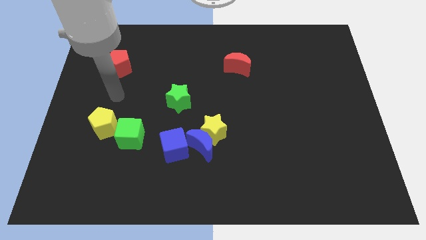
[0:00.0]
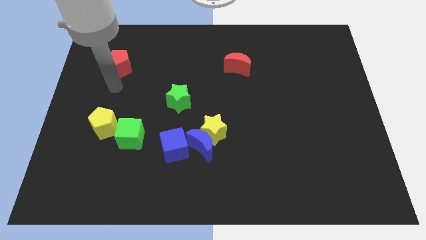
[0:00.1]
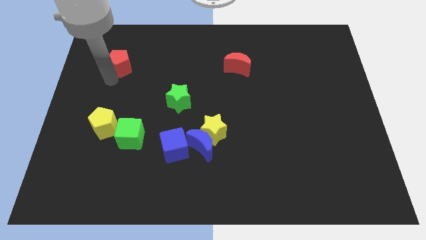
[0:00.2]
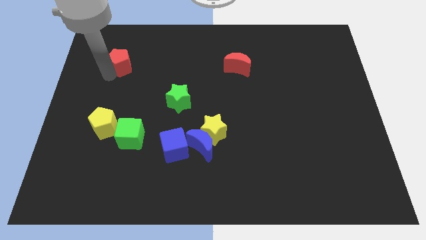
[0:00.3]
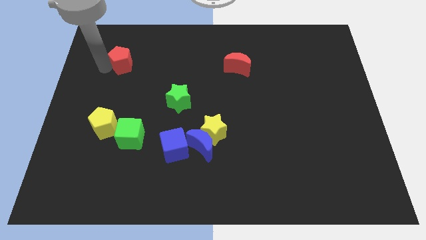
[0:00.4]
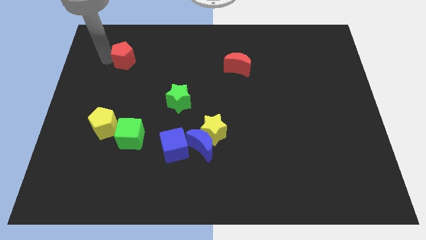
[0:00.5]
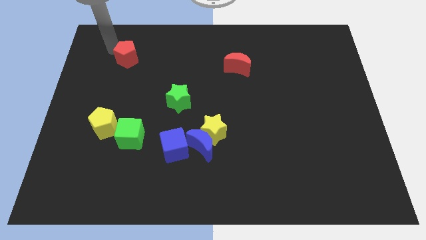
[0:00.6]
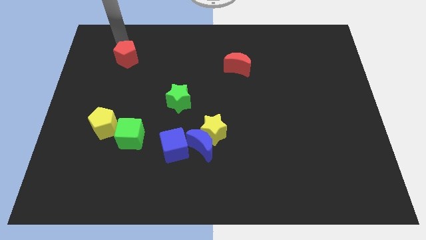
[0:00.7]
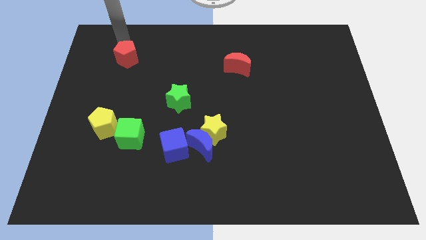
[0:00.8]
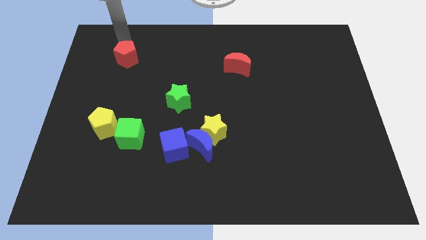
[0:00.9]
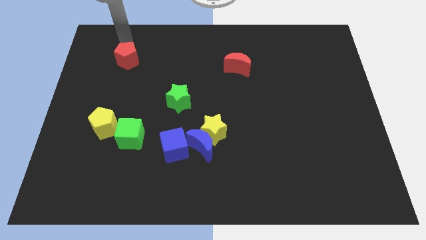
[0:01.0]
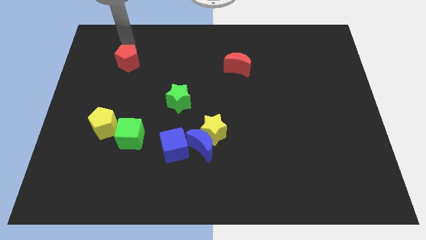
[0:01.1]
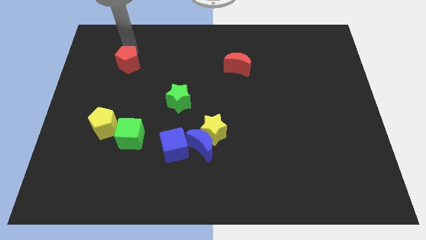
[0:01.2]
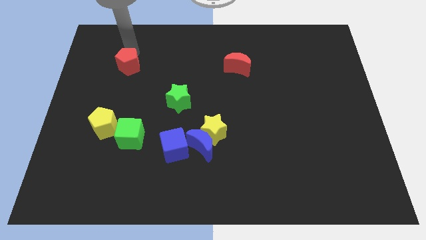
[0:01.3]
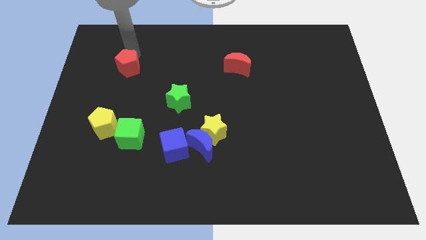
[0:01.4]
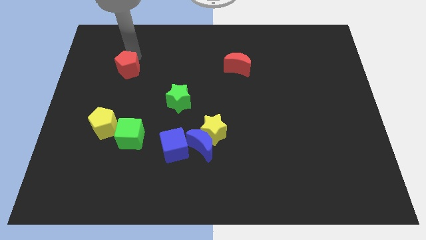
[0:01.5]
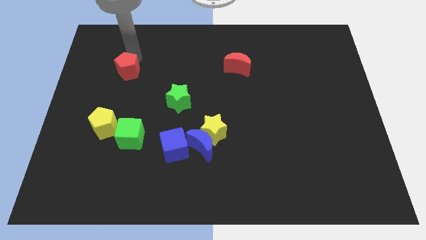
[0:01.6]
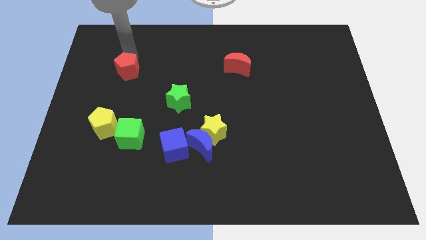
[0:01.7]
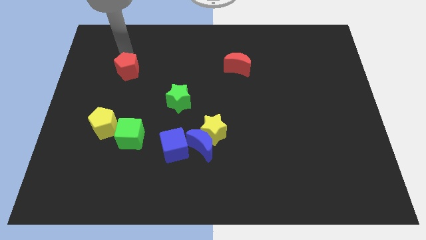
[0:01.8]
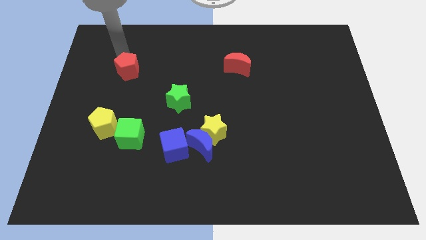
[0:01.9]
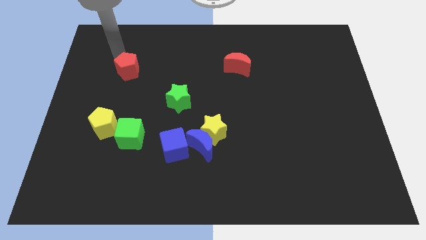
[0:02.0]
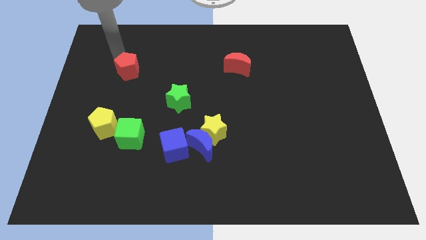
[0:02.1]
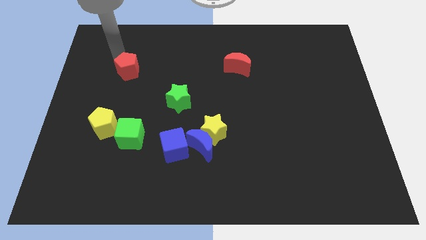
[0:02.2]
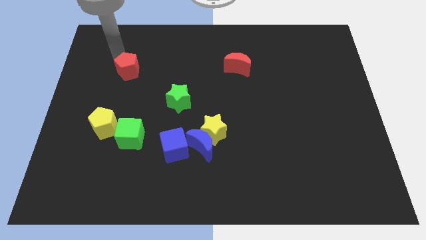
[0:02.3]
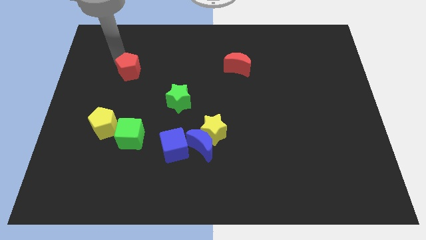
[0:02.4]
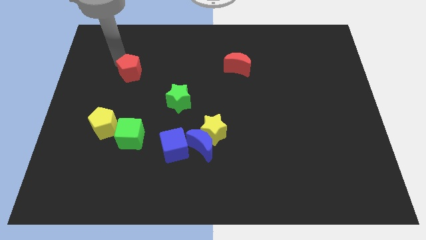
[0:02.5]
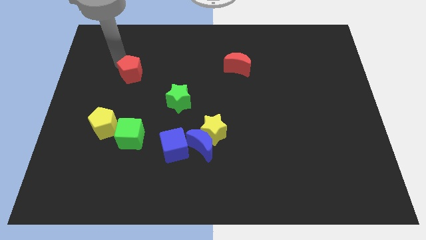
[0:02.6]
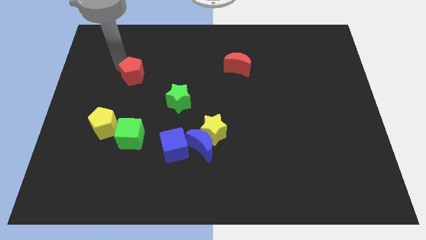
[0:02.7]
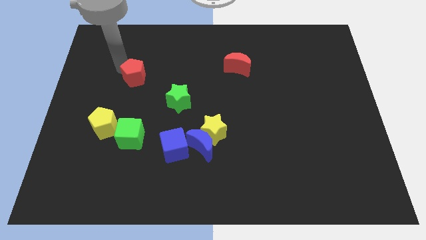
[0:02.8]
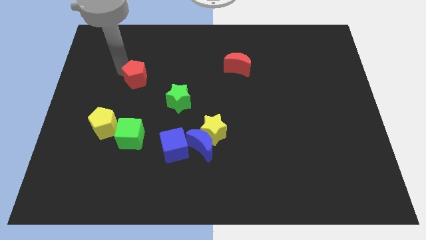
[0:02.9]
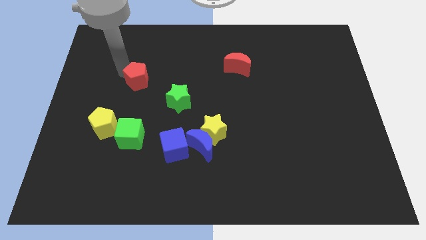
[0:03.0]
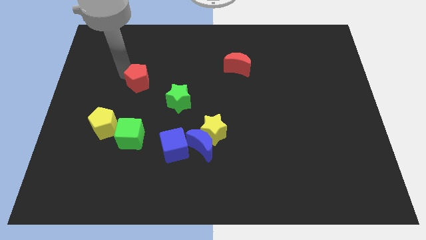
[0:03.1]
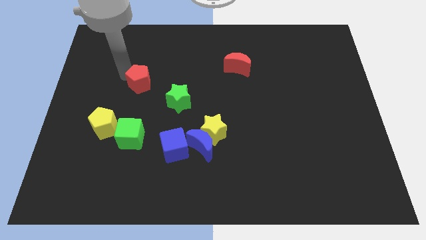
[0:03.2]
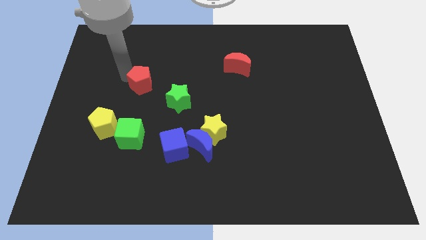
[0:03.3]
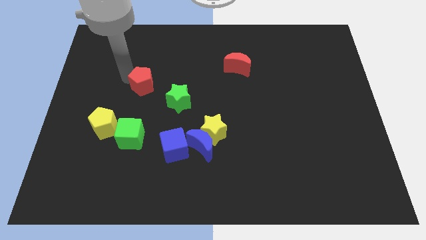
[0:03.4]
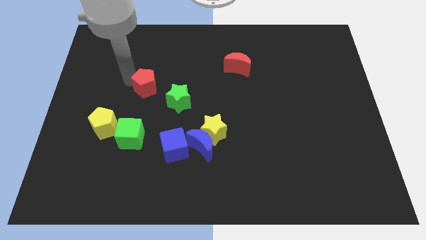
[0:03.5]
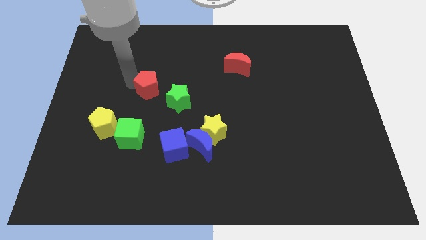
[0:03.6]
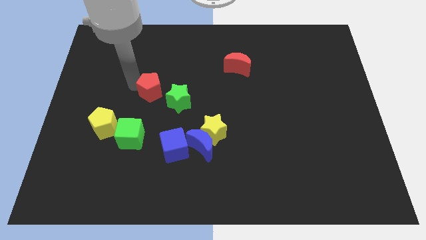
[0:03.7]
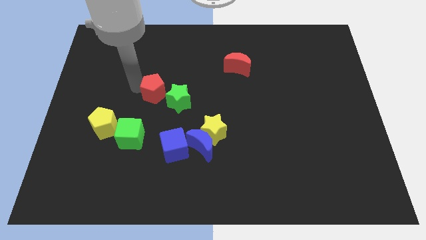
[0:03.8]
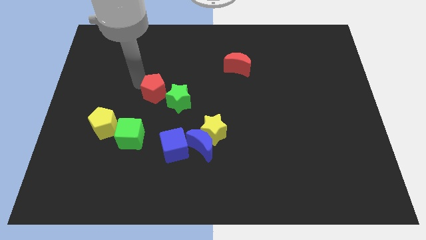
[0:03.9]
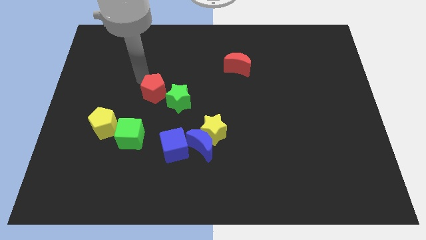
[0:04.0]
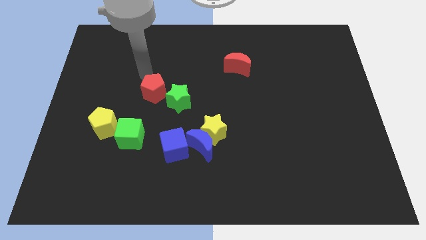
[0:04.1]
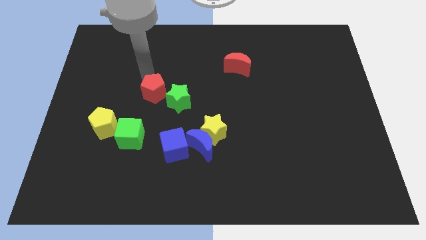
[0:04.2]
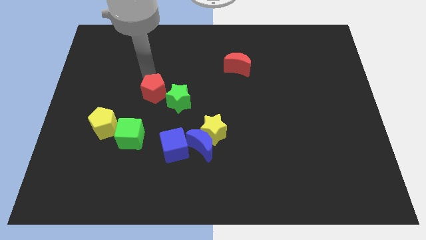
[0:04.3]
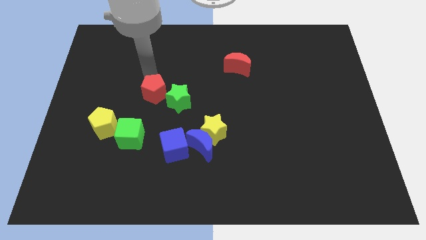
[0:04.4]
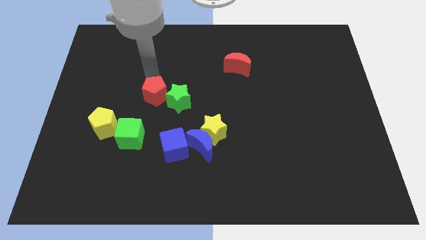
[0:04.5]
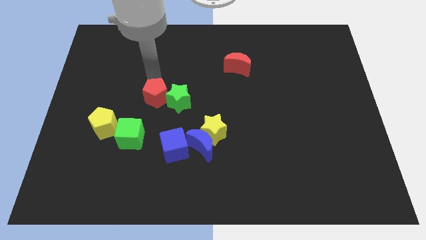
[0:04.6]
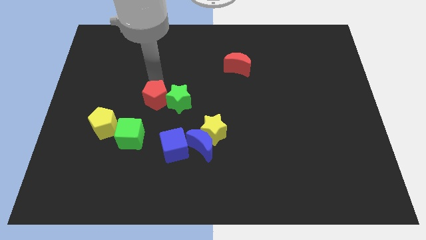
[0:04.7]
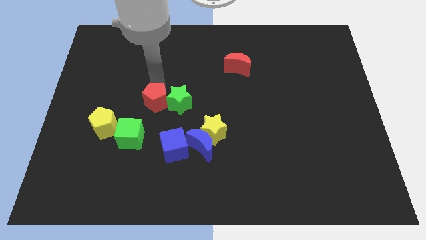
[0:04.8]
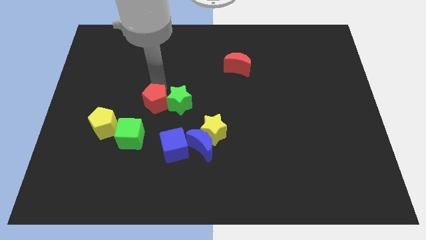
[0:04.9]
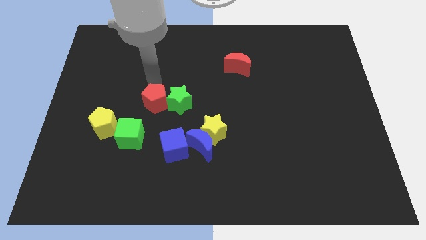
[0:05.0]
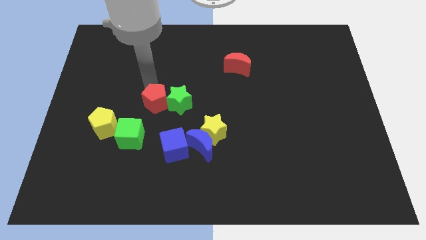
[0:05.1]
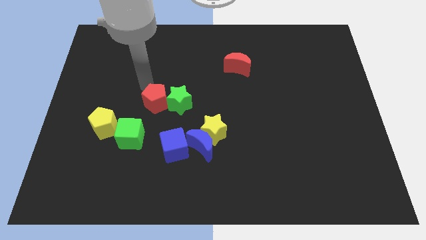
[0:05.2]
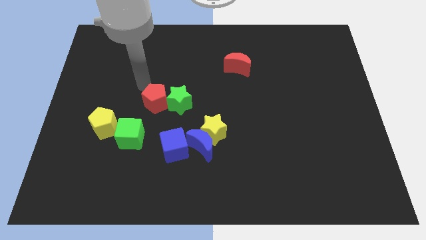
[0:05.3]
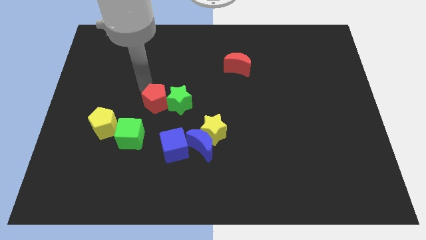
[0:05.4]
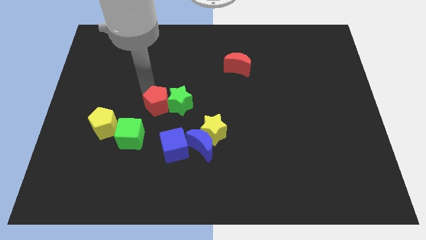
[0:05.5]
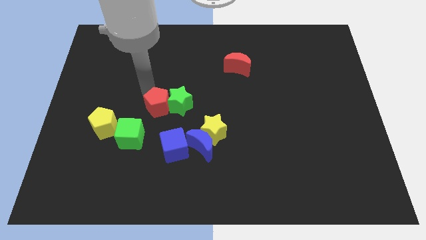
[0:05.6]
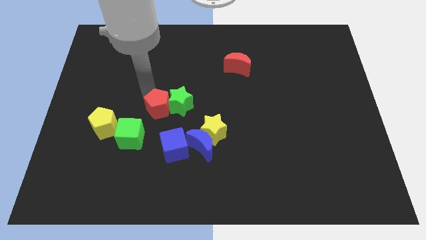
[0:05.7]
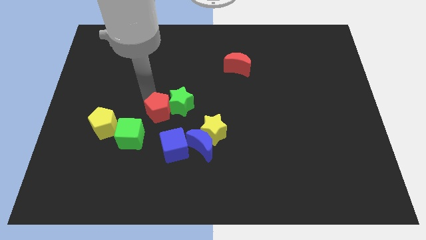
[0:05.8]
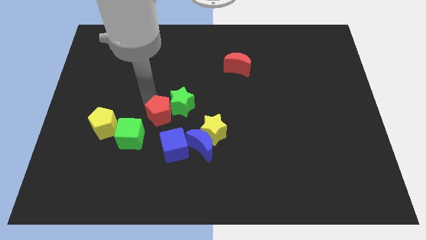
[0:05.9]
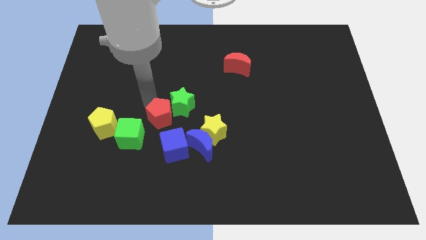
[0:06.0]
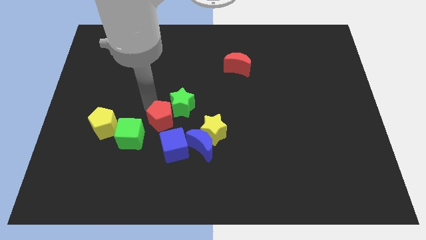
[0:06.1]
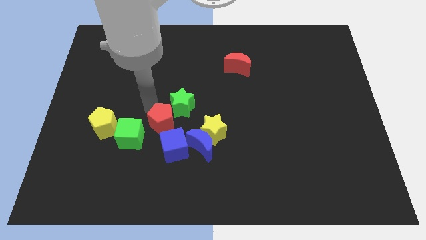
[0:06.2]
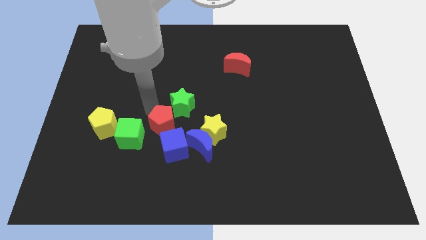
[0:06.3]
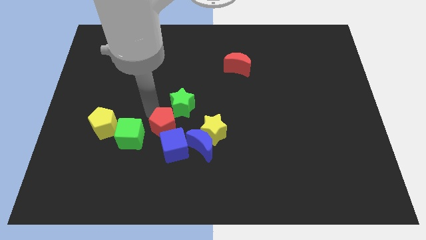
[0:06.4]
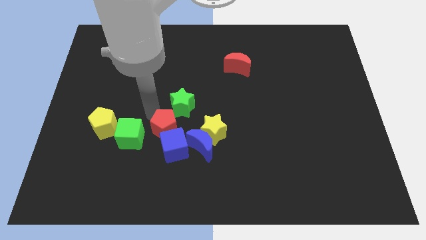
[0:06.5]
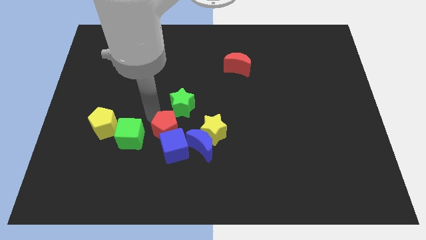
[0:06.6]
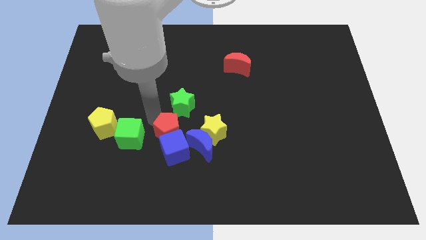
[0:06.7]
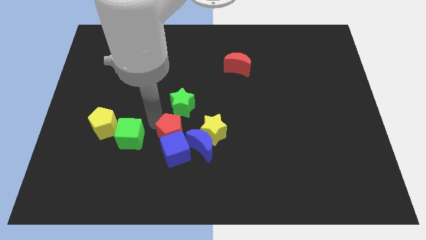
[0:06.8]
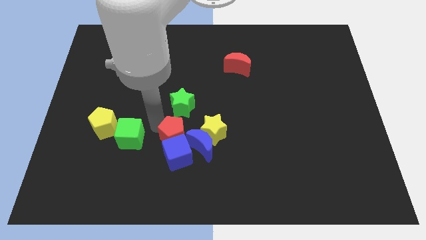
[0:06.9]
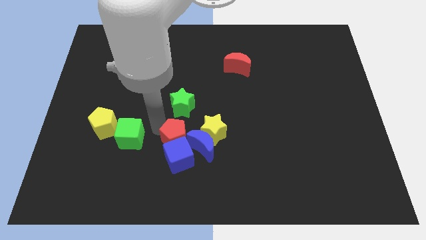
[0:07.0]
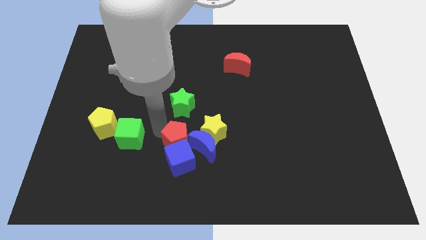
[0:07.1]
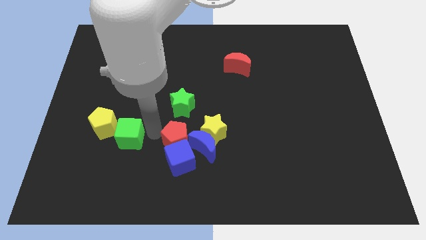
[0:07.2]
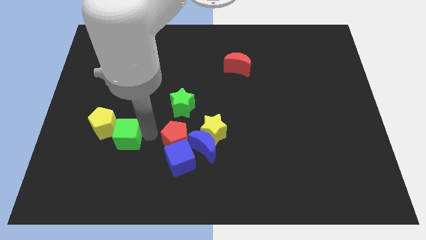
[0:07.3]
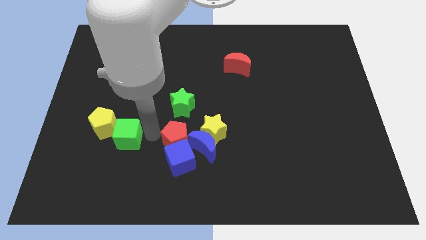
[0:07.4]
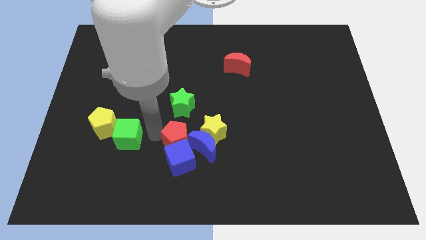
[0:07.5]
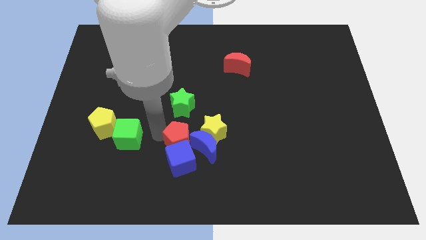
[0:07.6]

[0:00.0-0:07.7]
slide the red pentagon next to the blue moon
